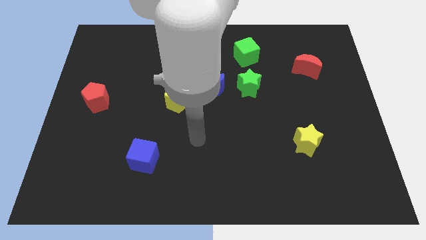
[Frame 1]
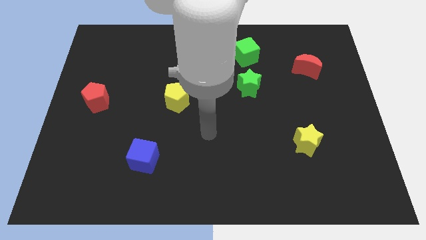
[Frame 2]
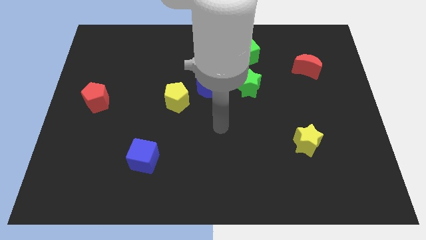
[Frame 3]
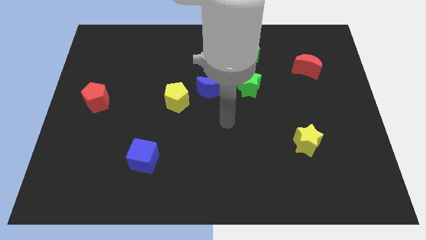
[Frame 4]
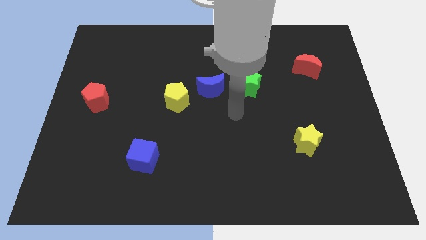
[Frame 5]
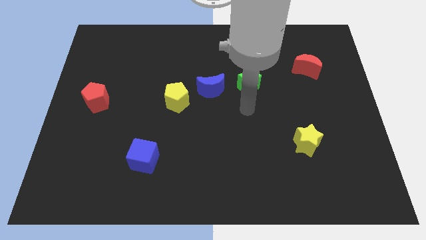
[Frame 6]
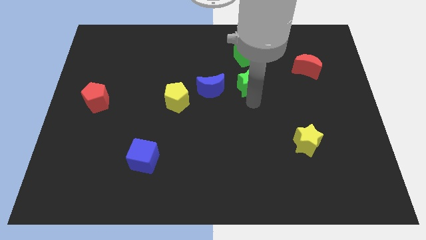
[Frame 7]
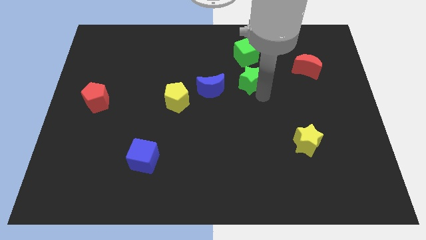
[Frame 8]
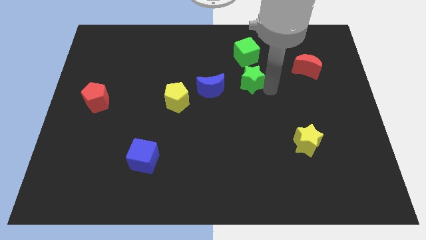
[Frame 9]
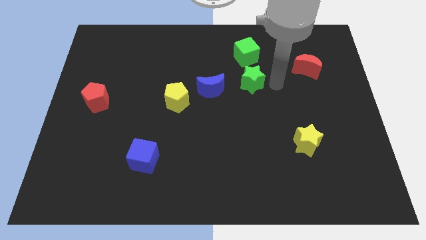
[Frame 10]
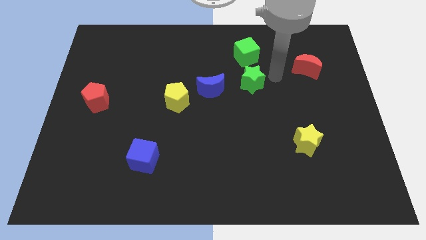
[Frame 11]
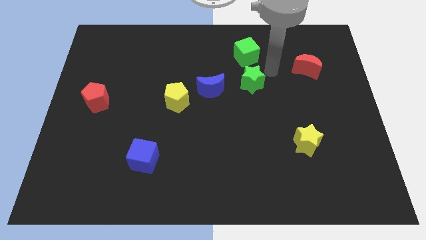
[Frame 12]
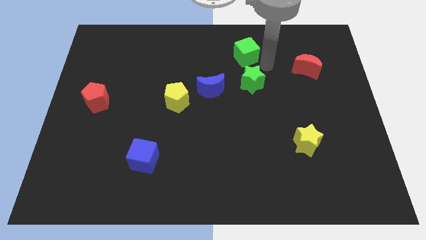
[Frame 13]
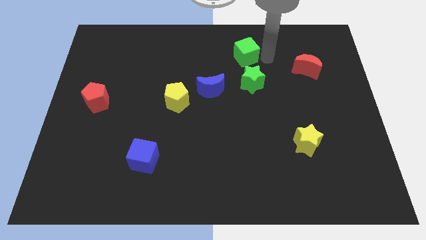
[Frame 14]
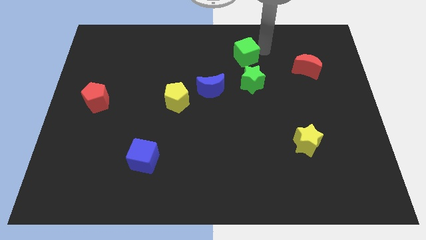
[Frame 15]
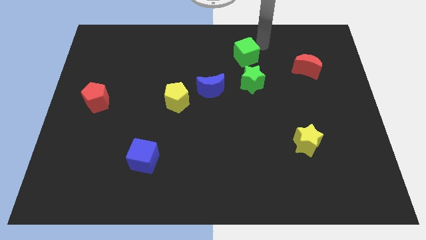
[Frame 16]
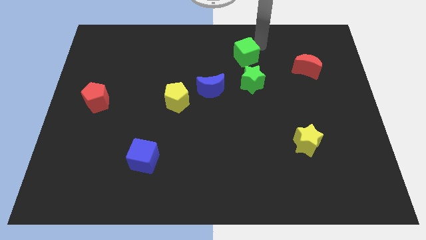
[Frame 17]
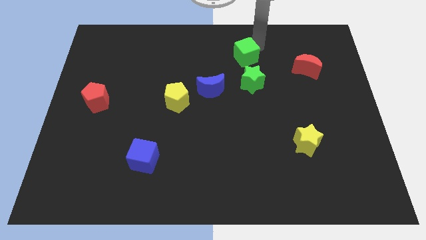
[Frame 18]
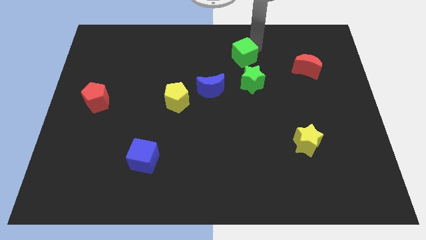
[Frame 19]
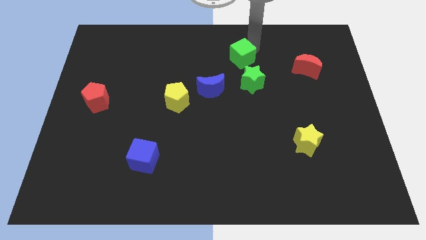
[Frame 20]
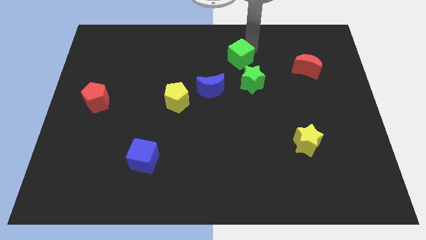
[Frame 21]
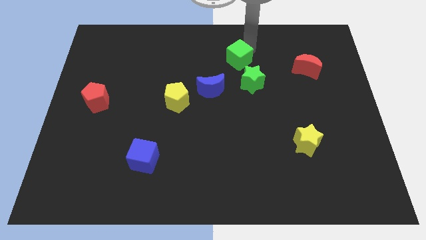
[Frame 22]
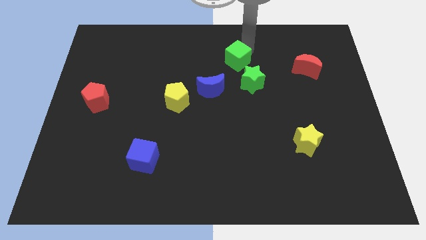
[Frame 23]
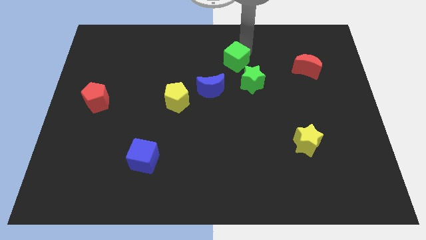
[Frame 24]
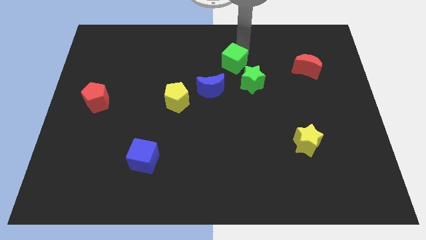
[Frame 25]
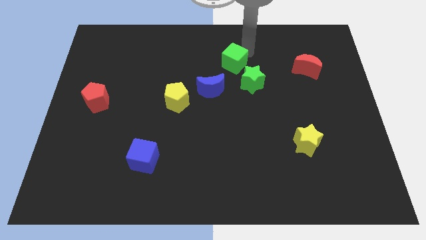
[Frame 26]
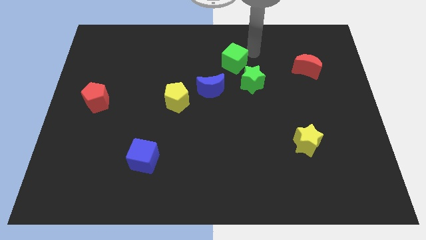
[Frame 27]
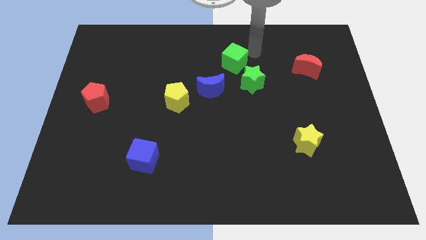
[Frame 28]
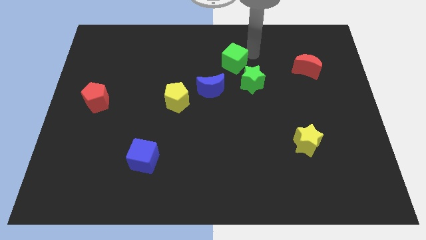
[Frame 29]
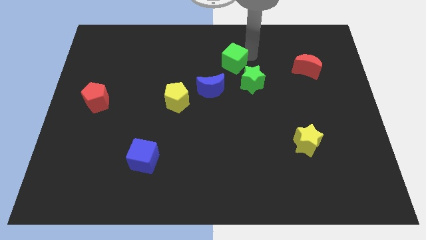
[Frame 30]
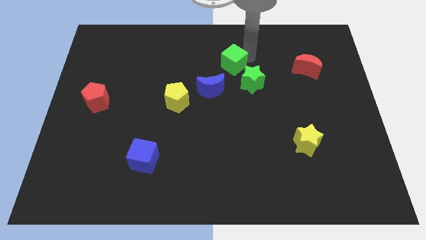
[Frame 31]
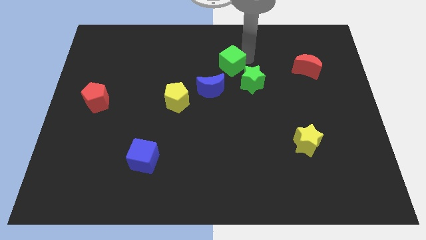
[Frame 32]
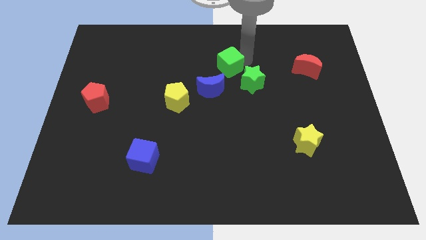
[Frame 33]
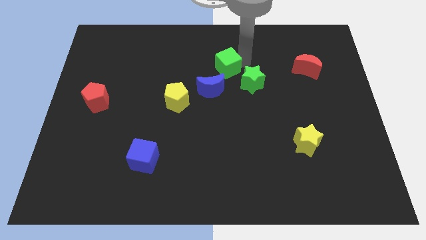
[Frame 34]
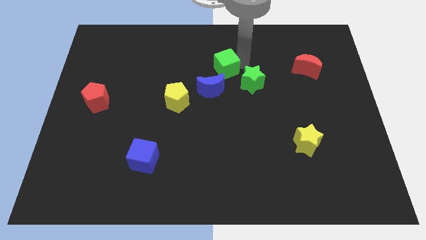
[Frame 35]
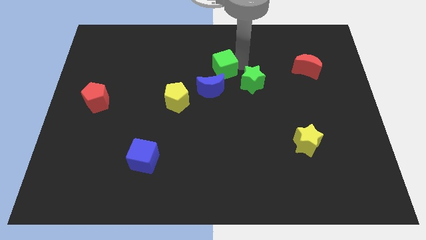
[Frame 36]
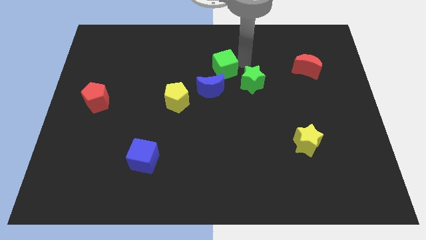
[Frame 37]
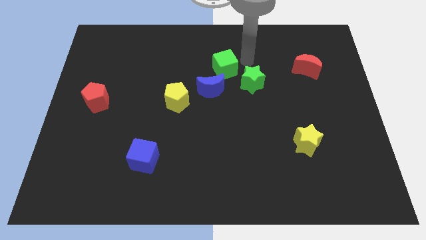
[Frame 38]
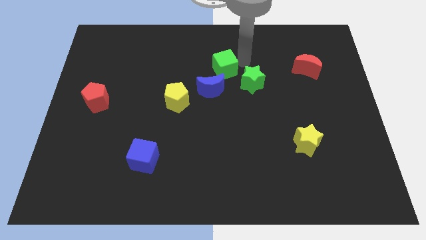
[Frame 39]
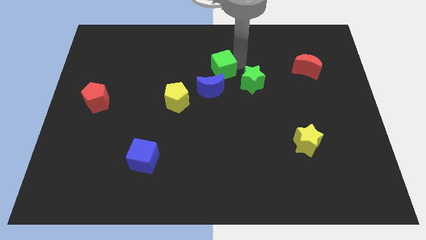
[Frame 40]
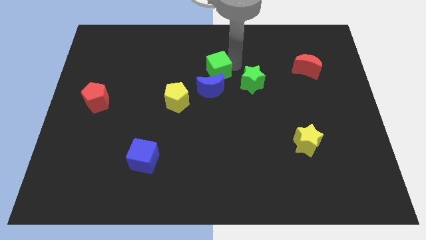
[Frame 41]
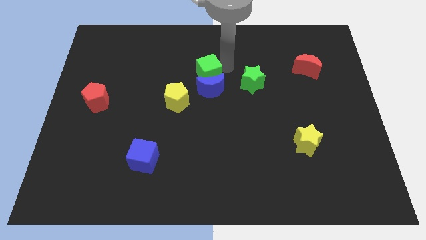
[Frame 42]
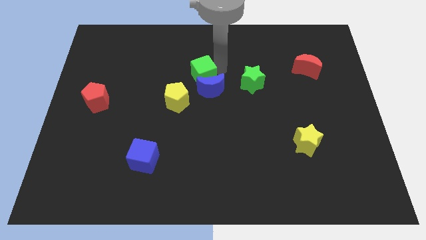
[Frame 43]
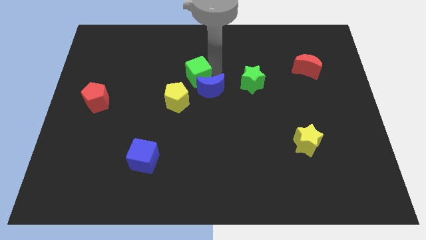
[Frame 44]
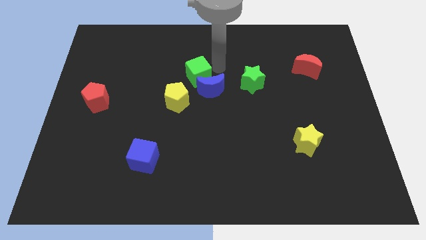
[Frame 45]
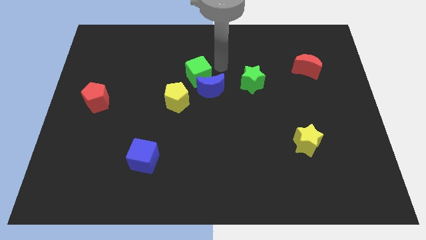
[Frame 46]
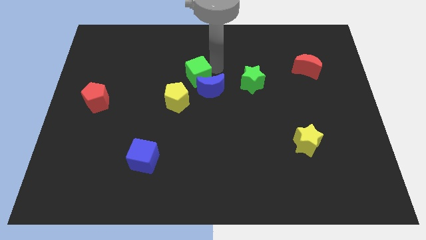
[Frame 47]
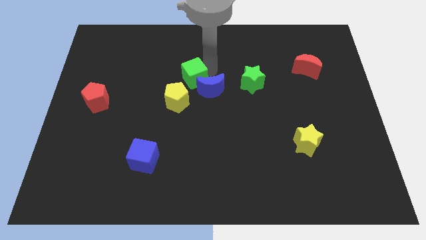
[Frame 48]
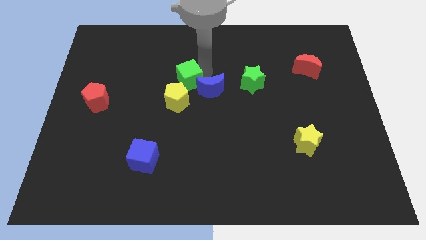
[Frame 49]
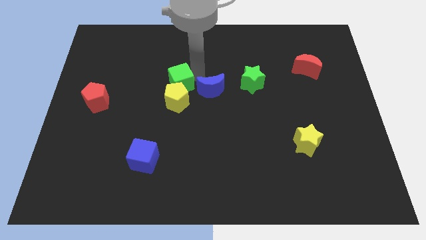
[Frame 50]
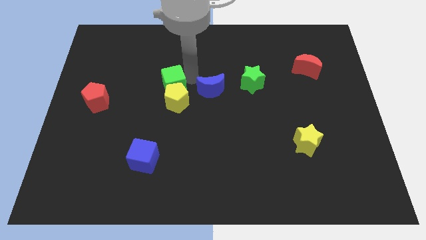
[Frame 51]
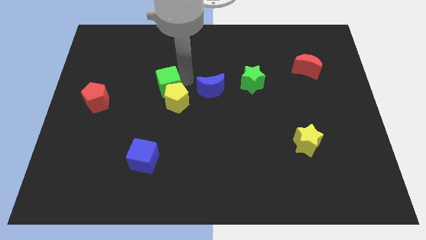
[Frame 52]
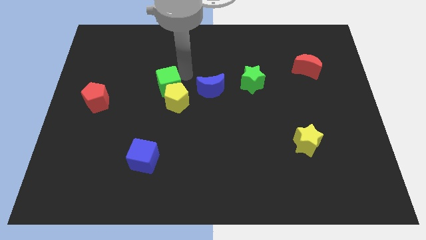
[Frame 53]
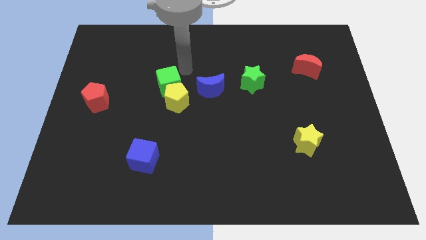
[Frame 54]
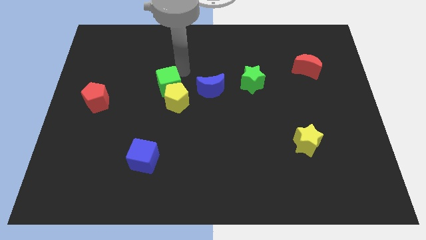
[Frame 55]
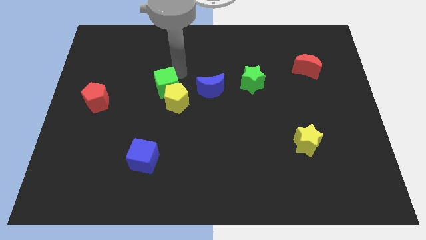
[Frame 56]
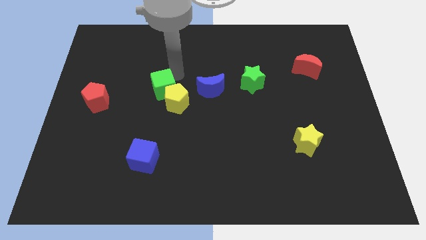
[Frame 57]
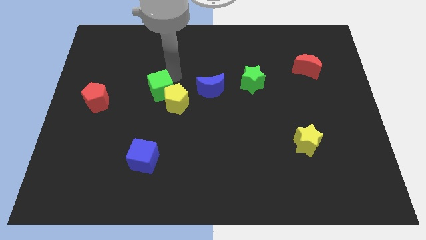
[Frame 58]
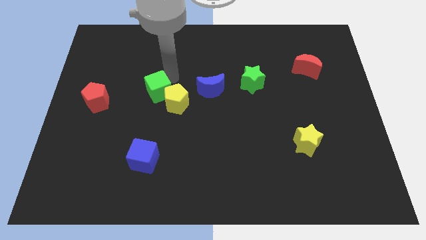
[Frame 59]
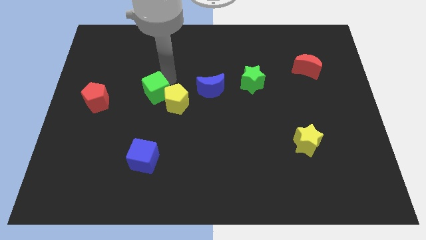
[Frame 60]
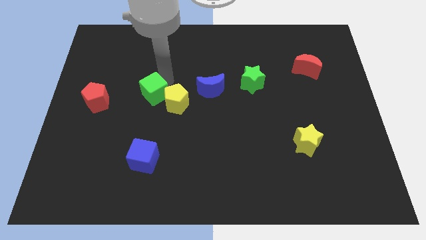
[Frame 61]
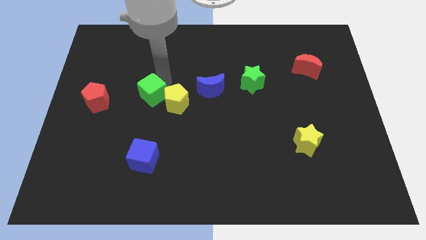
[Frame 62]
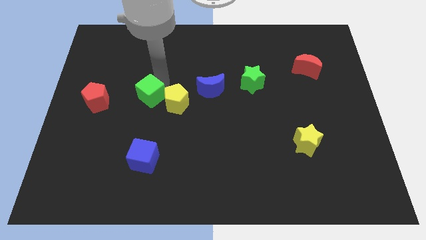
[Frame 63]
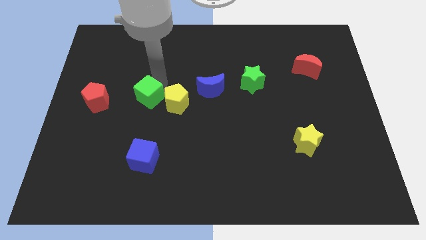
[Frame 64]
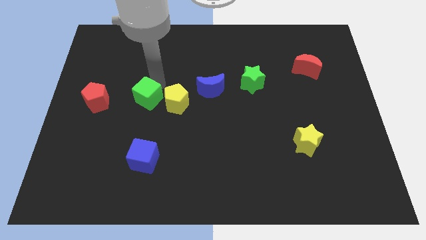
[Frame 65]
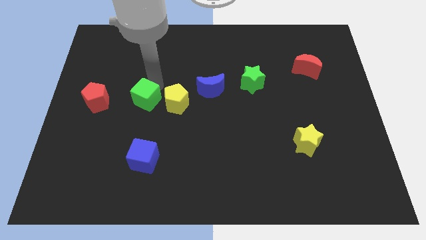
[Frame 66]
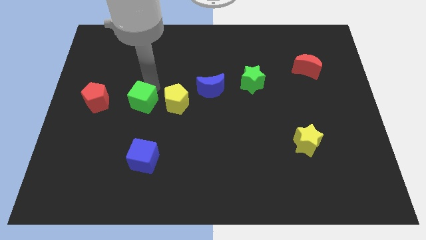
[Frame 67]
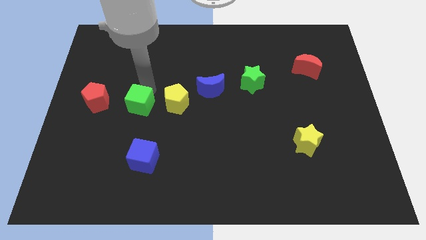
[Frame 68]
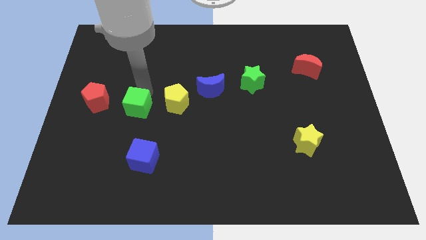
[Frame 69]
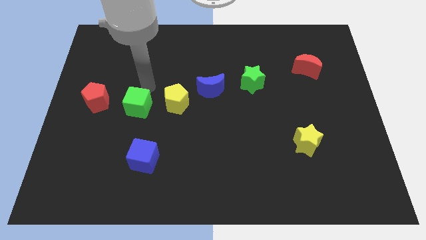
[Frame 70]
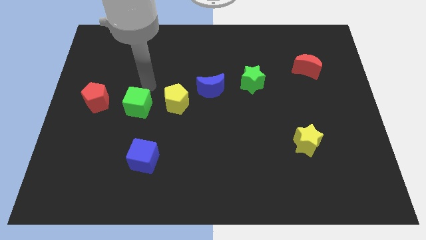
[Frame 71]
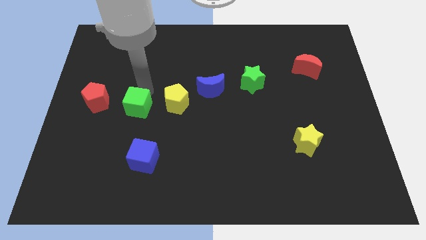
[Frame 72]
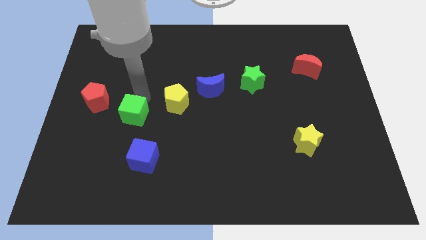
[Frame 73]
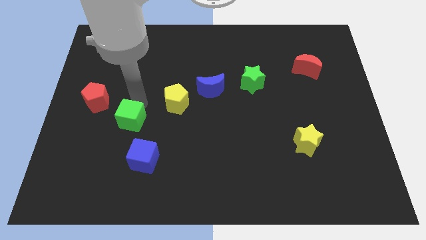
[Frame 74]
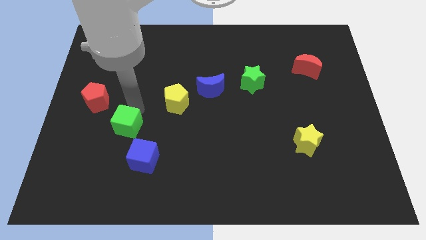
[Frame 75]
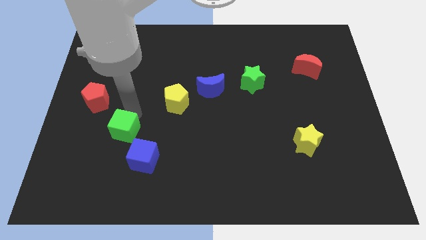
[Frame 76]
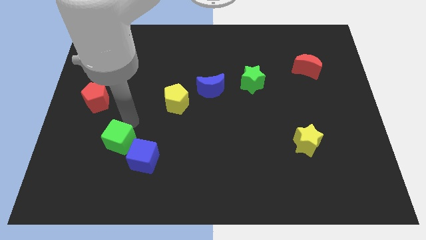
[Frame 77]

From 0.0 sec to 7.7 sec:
put the green cube to the left side of the blue cube
